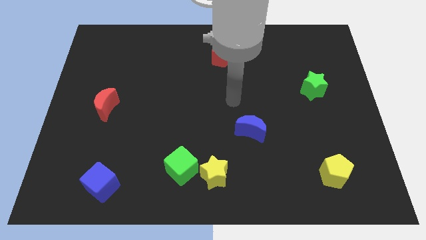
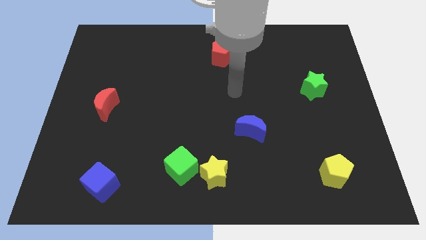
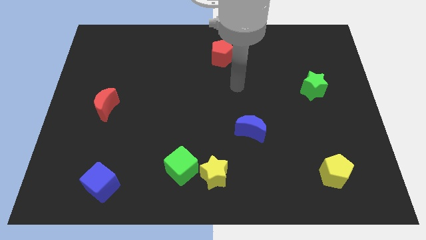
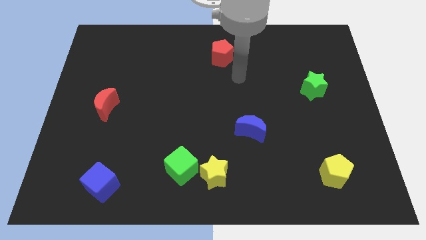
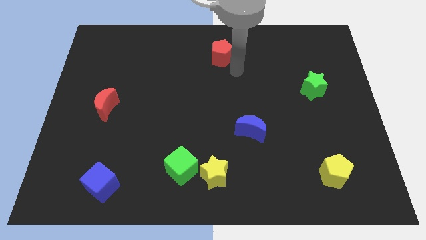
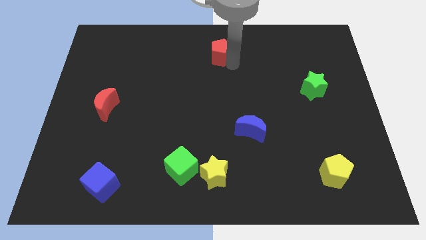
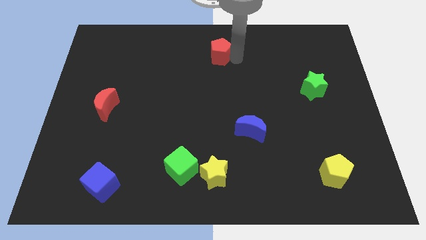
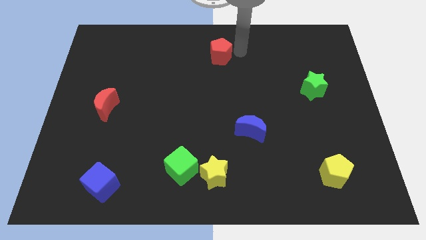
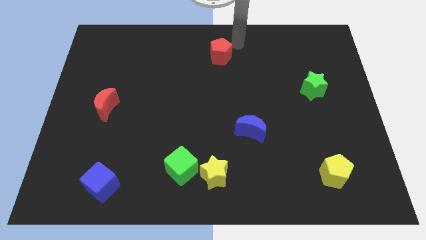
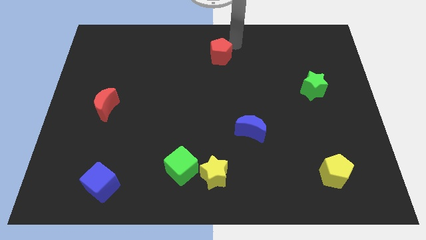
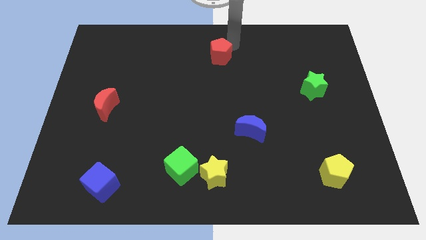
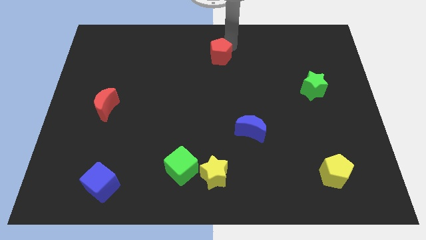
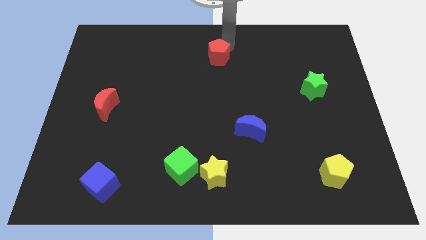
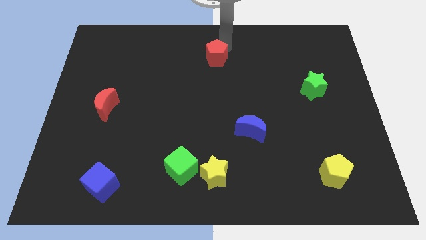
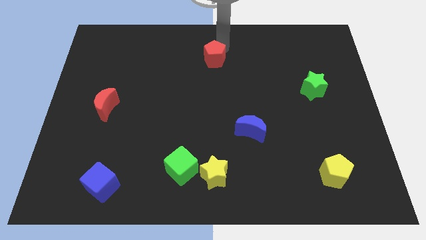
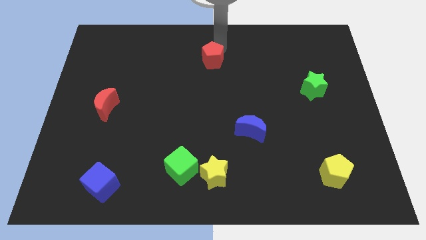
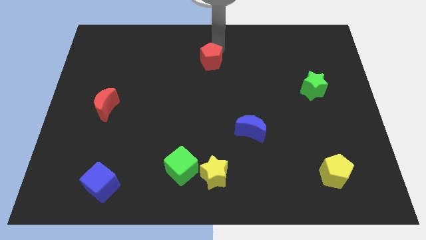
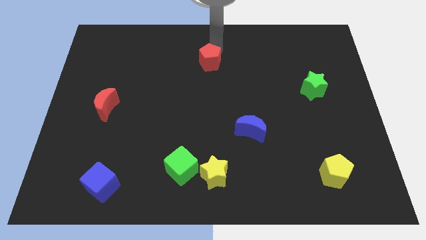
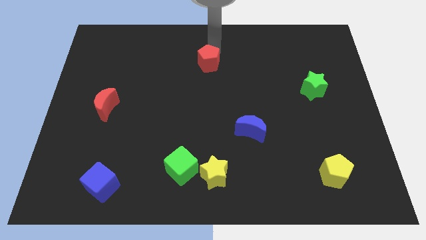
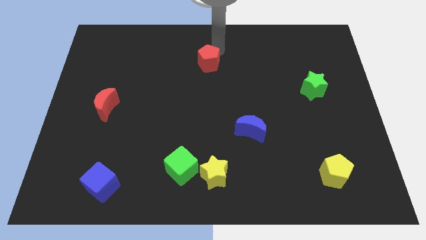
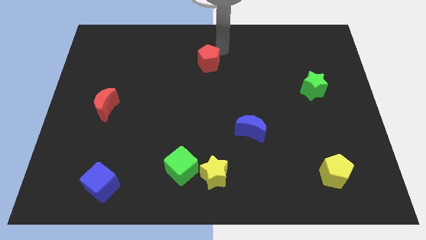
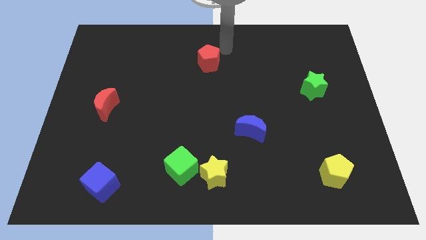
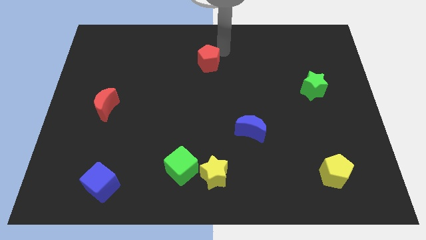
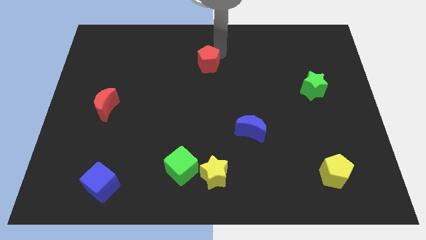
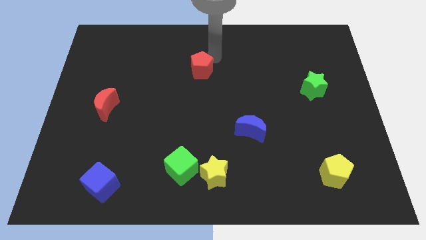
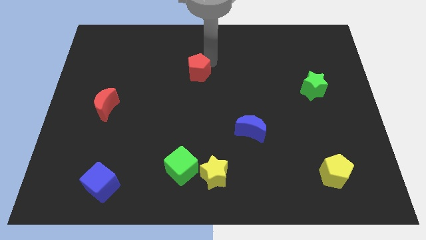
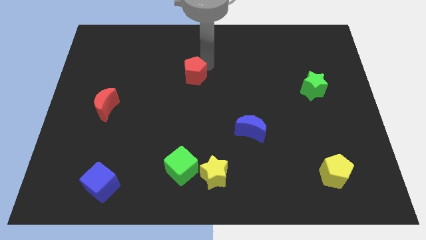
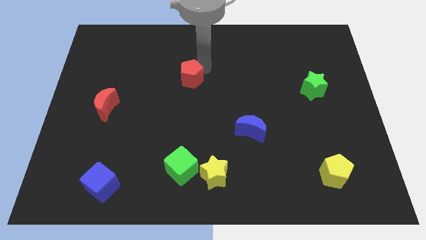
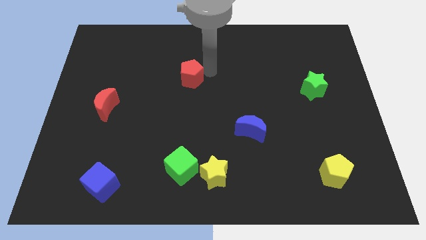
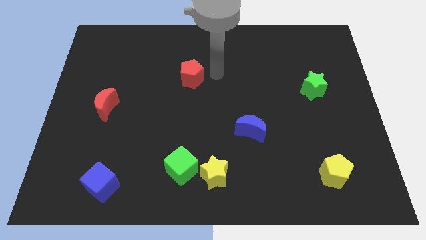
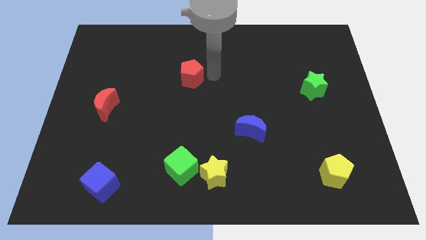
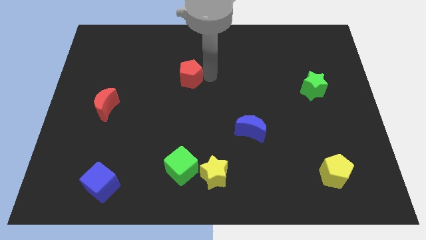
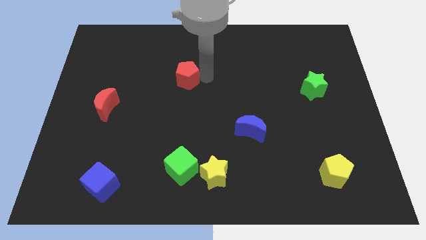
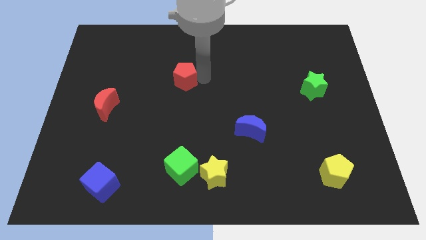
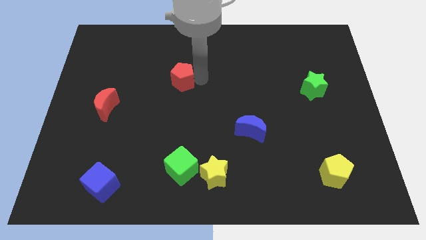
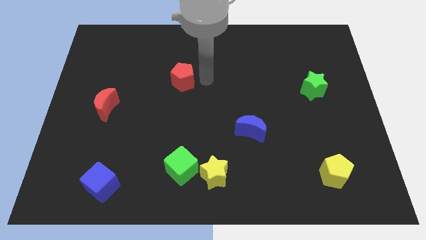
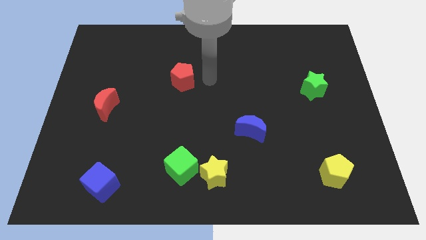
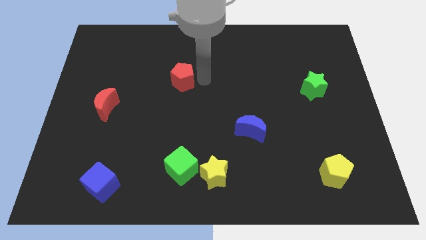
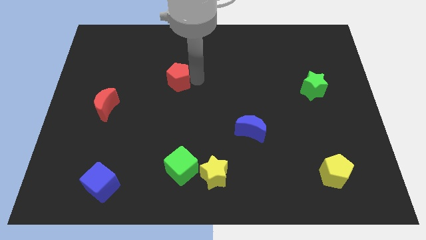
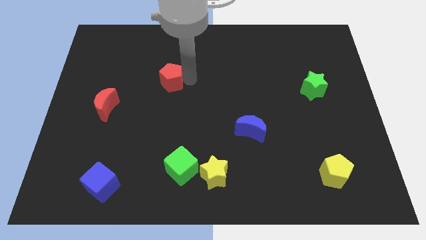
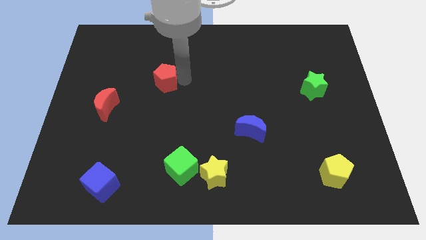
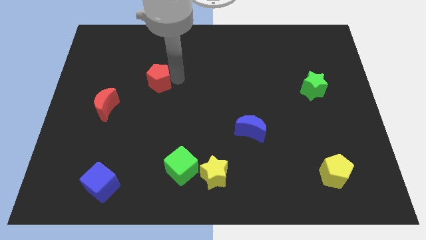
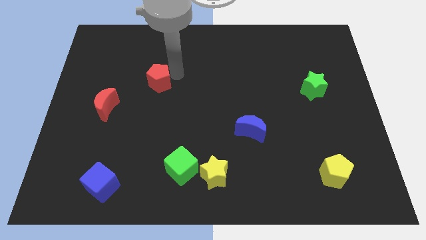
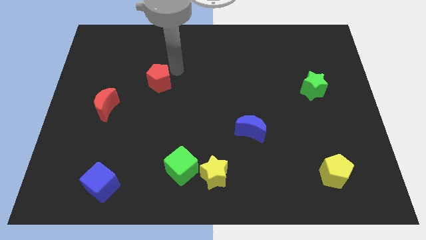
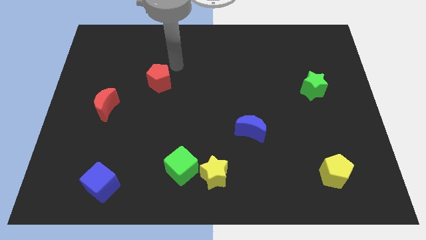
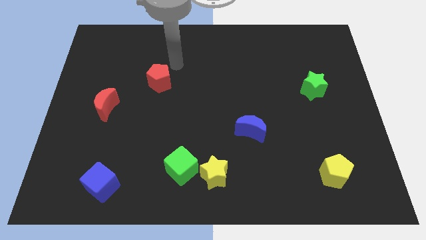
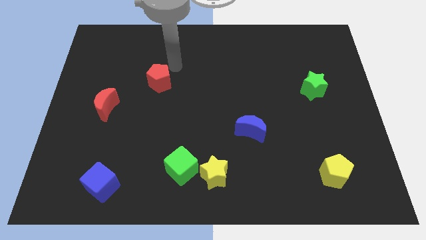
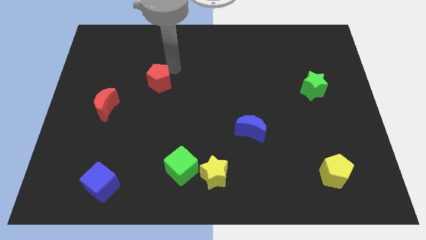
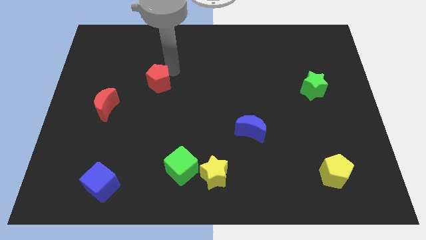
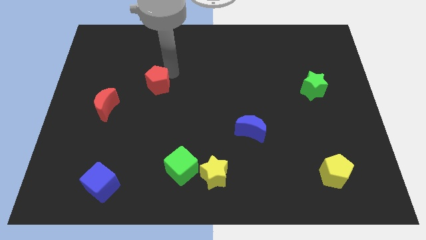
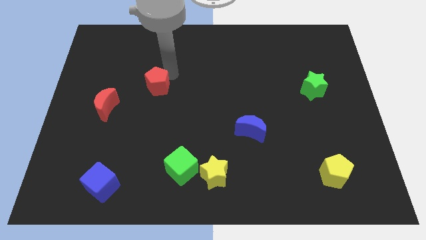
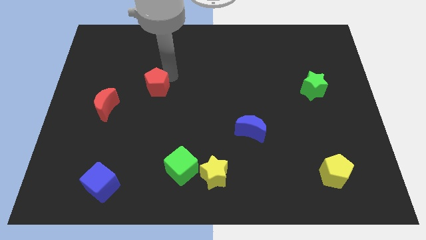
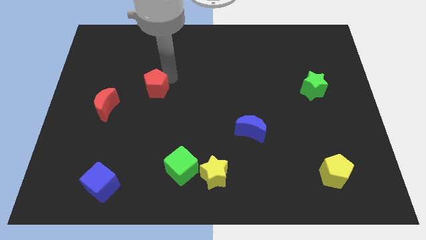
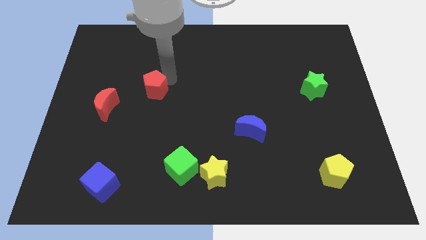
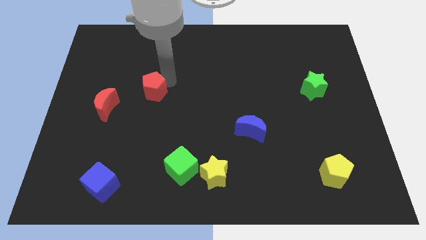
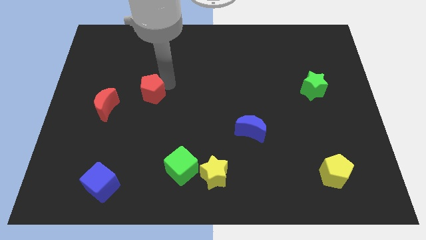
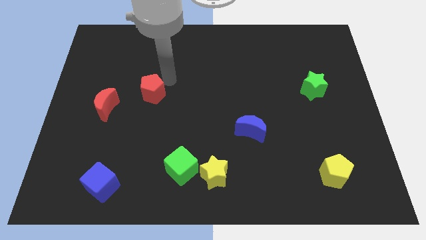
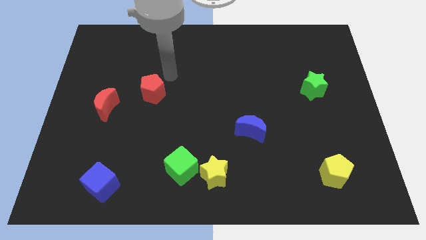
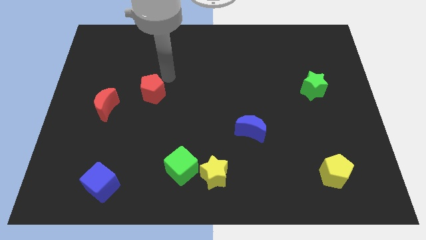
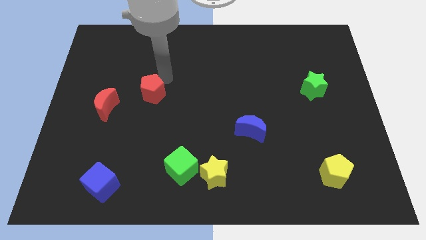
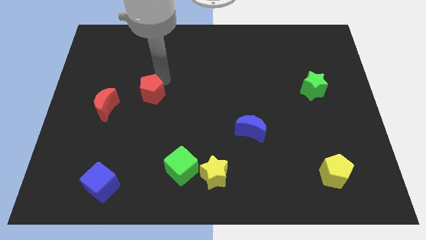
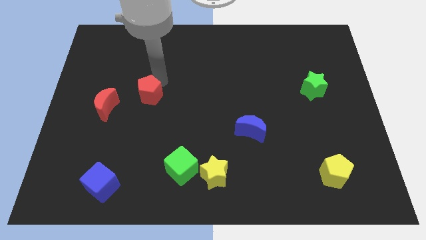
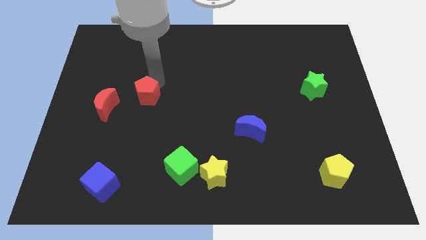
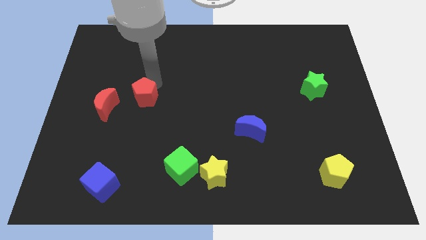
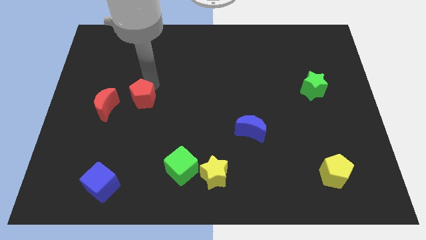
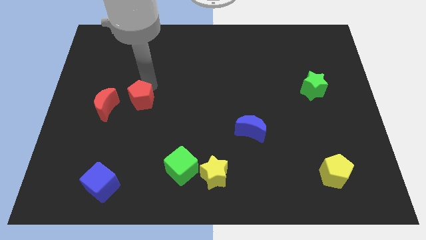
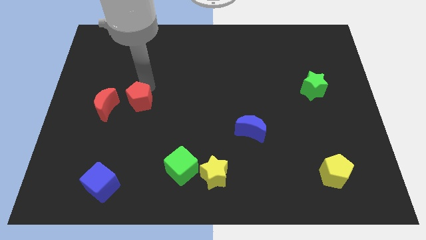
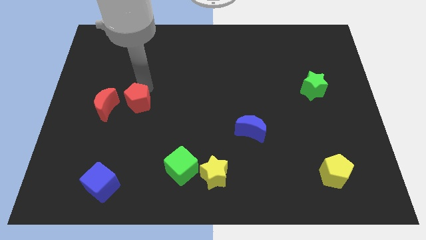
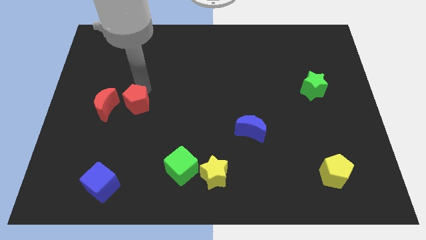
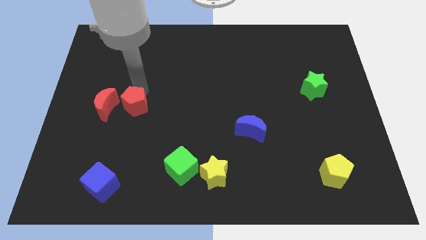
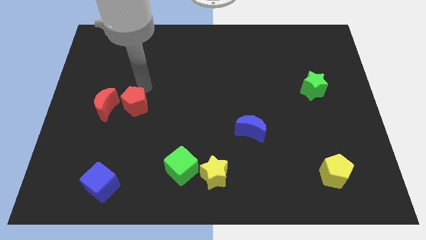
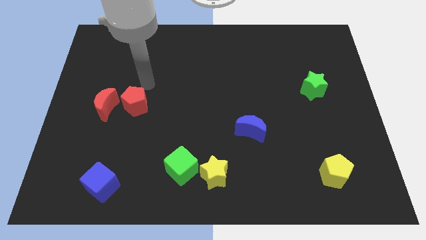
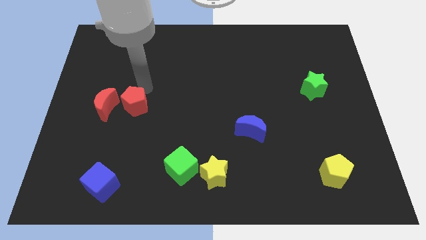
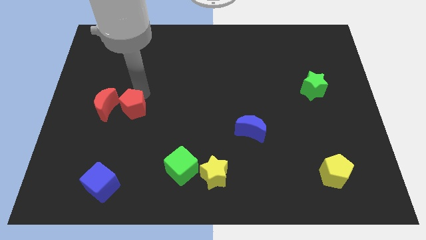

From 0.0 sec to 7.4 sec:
slide the red pentagon to the bottom right side of the red moon
